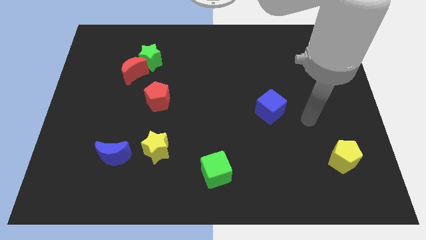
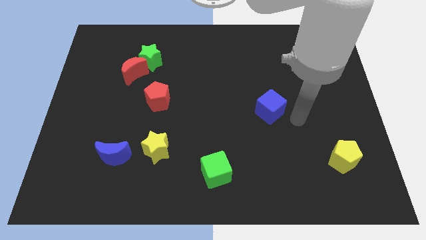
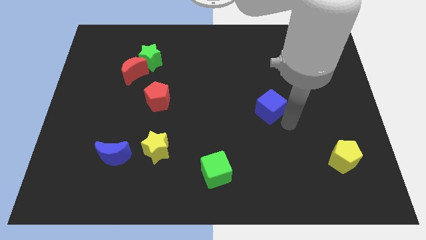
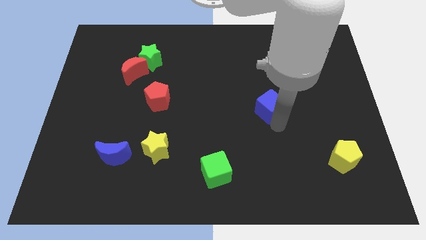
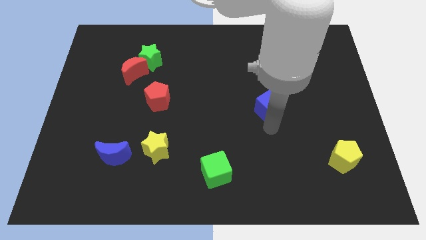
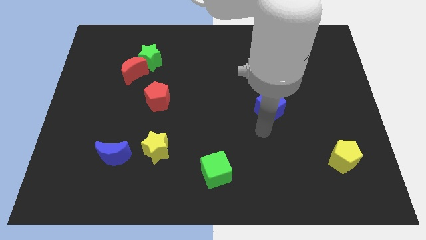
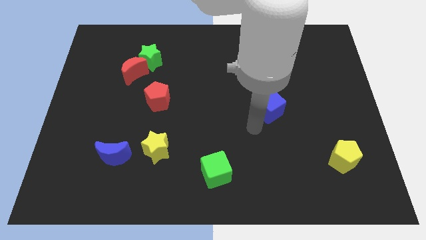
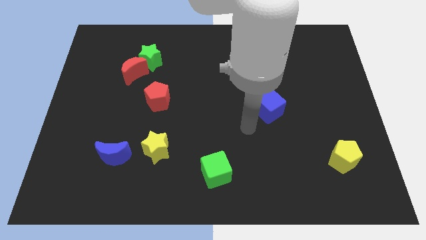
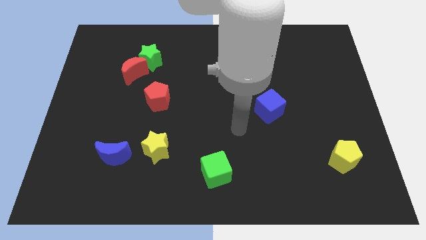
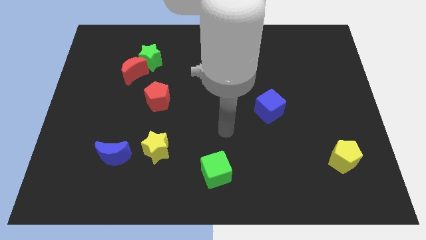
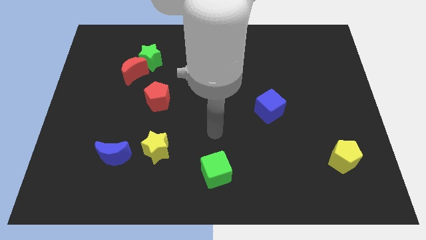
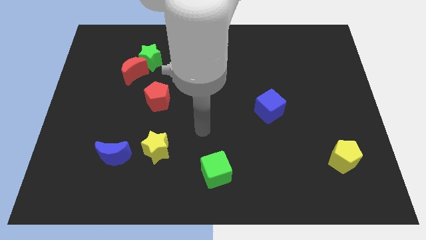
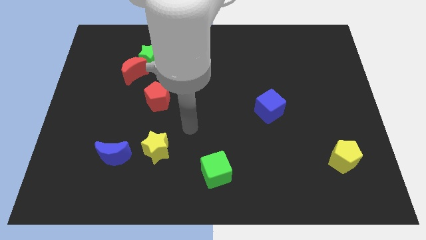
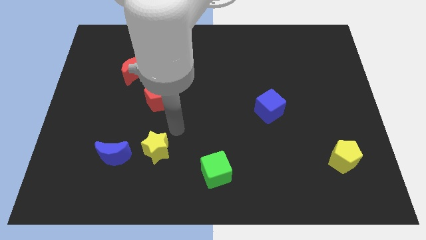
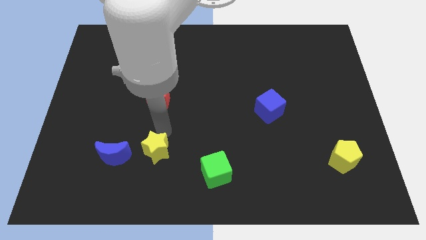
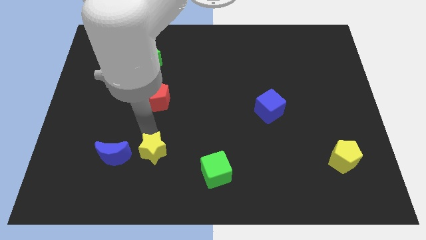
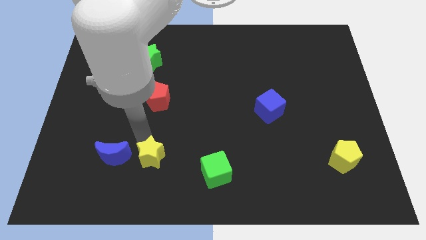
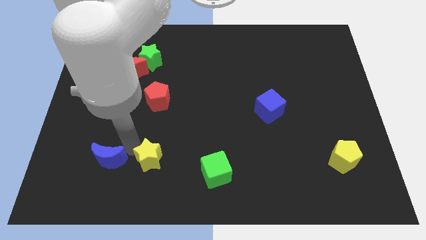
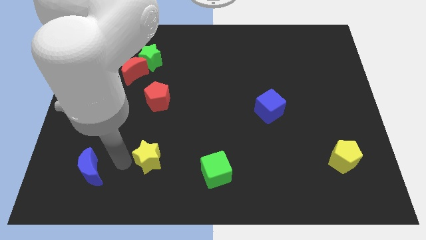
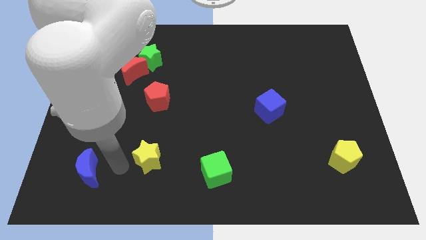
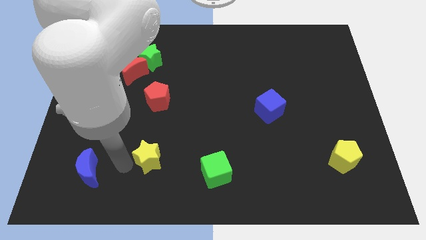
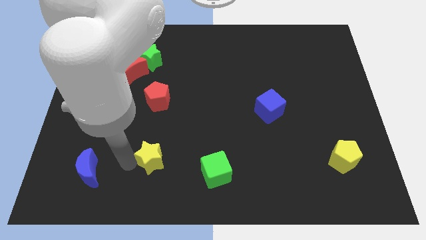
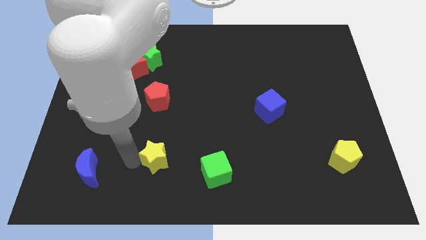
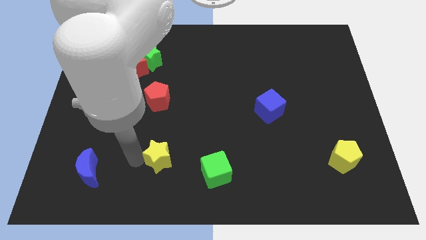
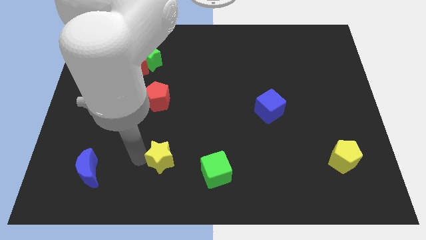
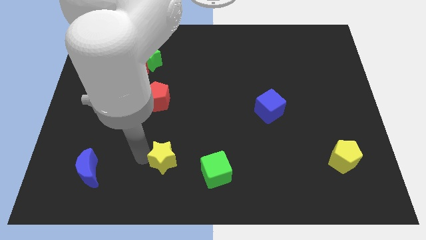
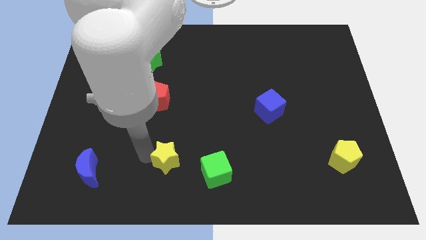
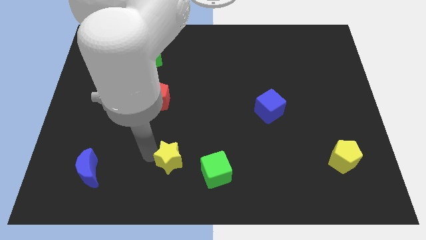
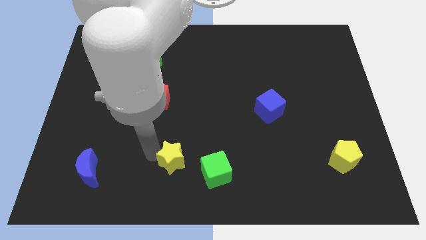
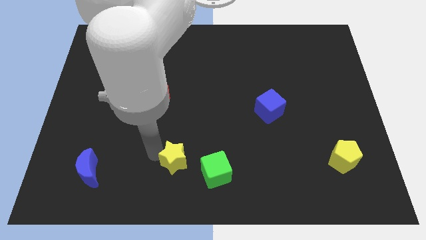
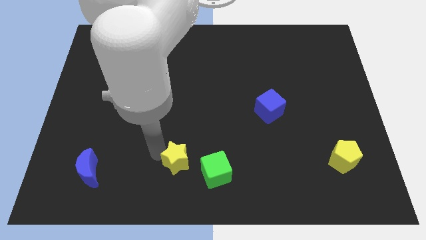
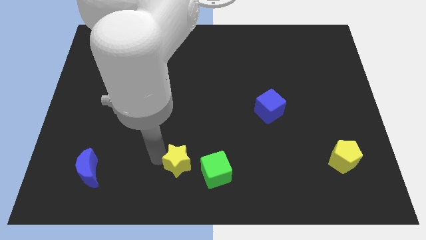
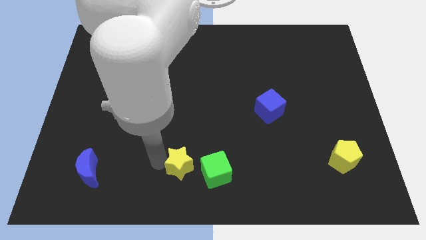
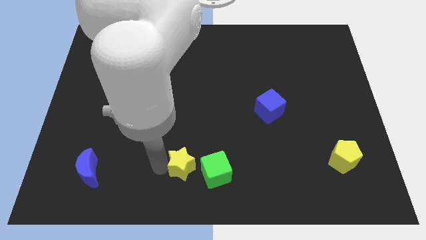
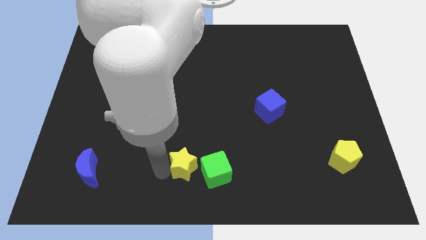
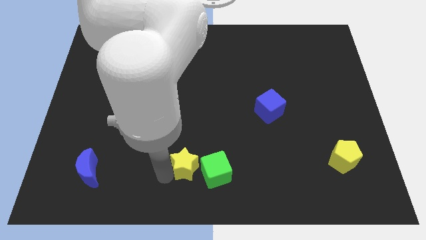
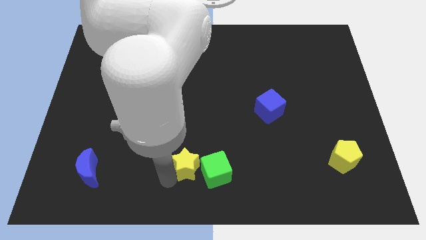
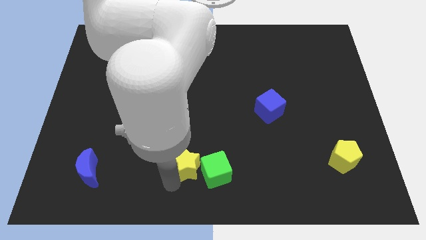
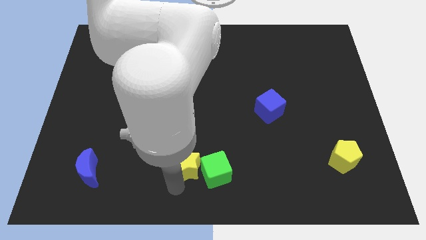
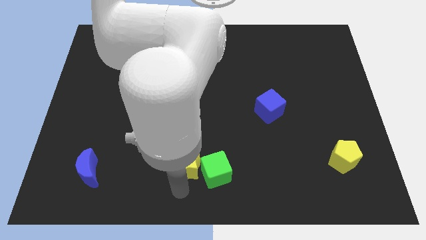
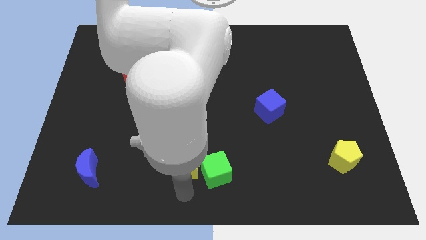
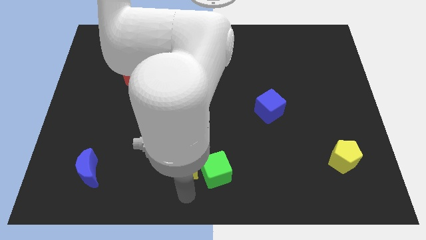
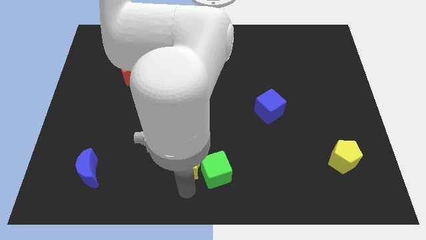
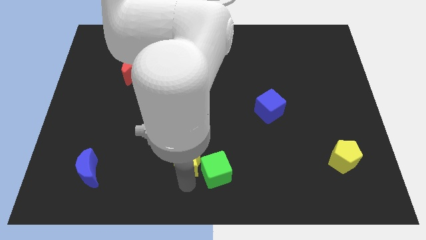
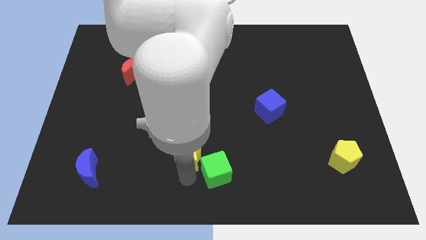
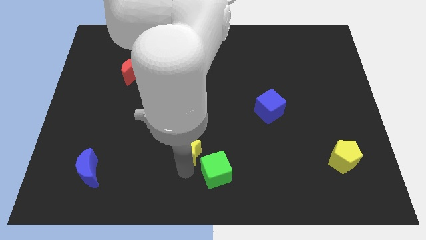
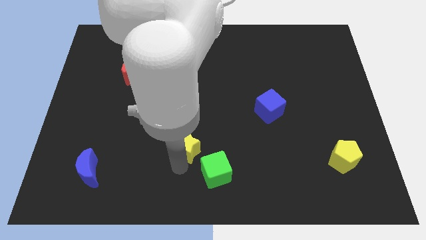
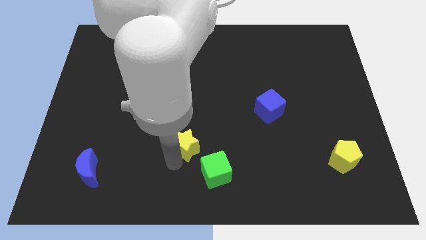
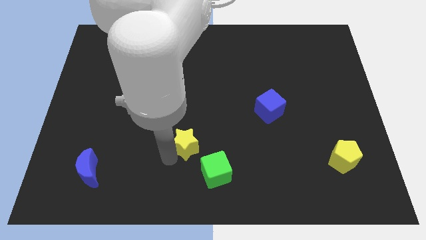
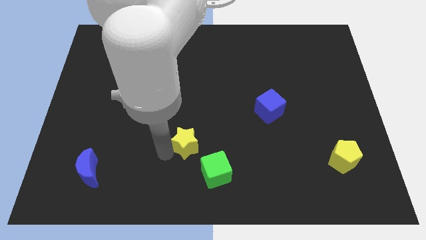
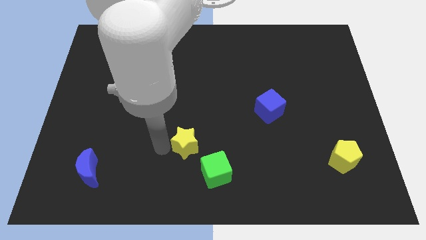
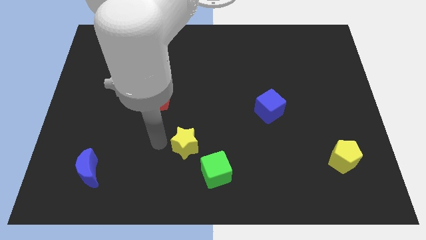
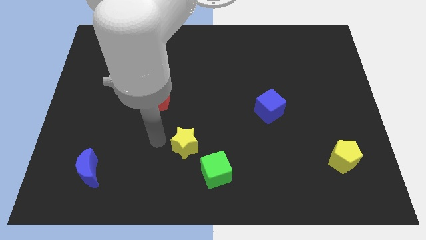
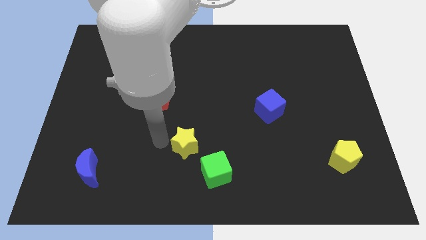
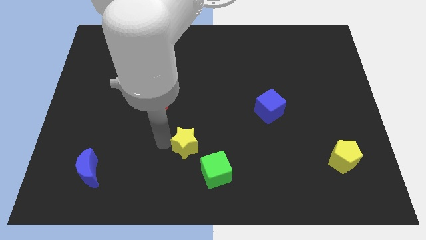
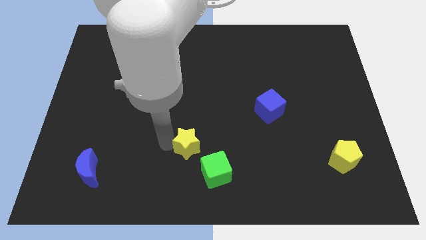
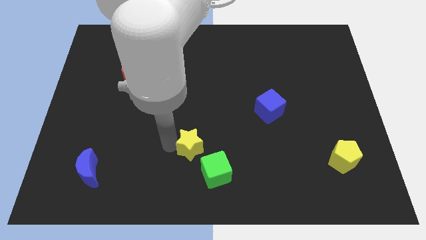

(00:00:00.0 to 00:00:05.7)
move the yellow star to the right a bit

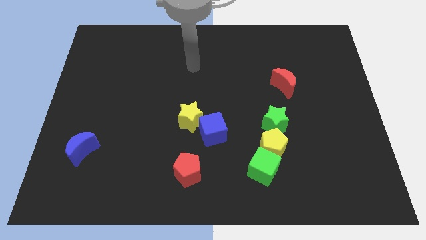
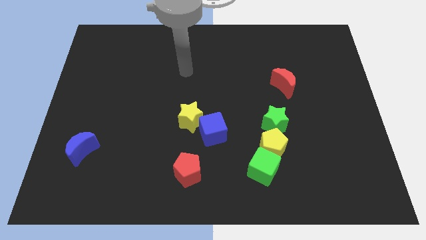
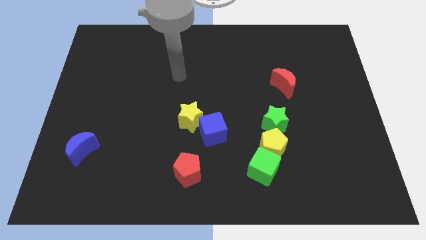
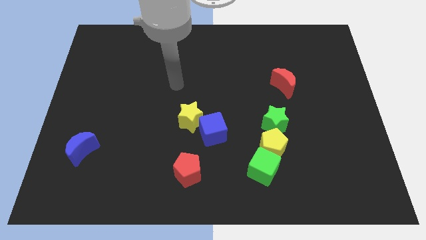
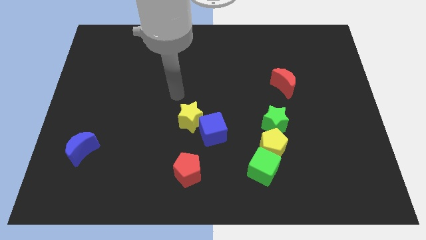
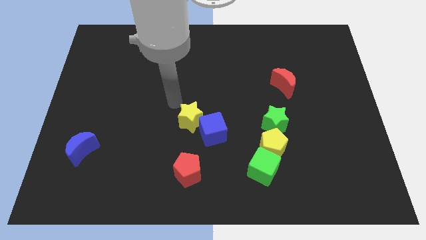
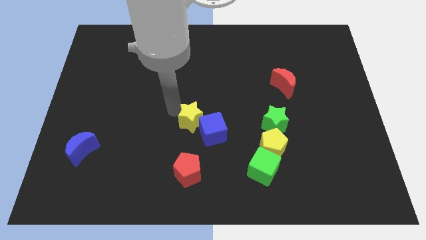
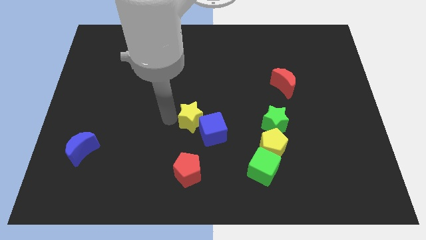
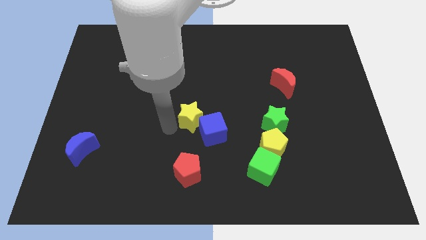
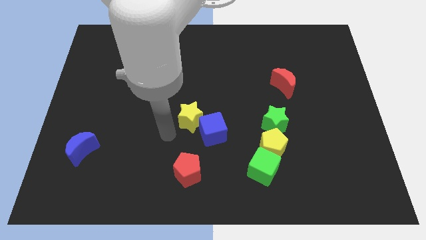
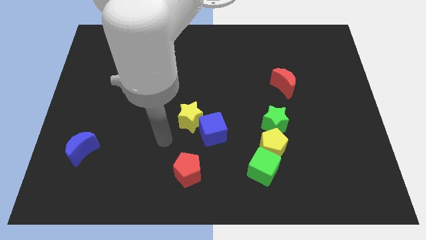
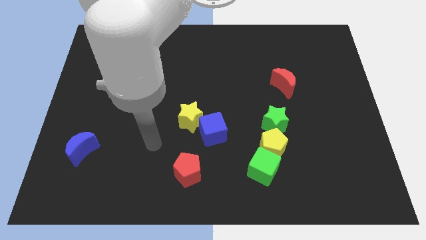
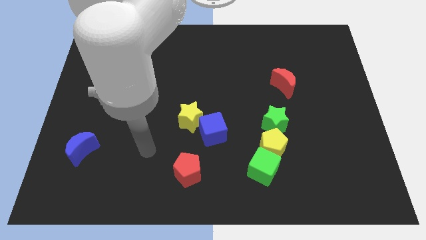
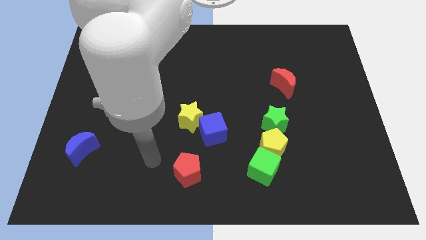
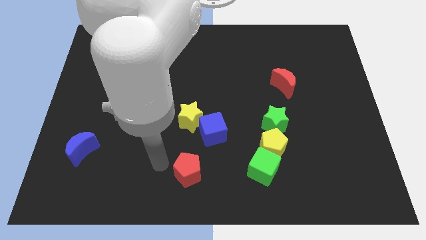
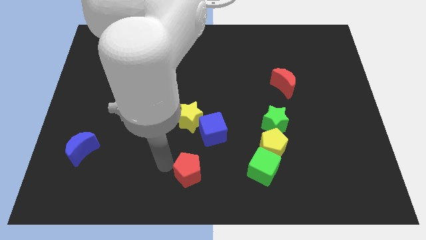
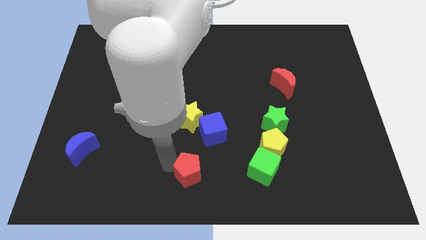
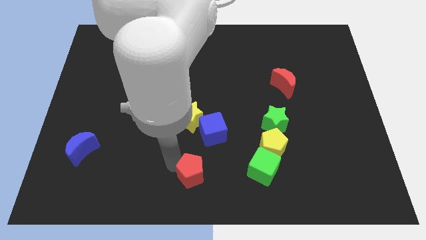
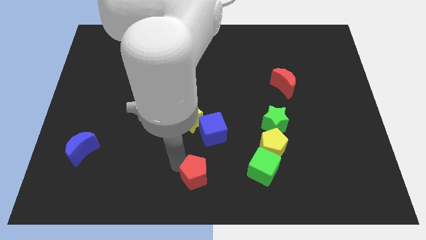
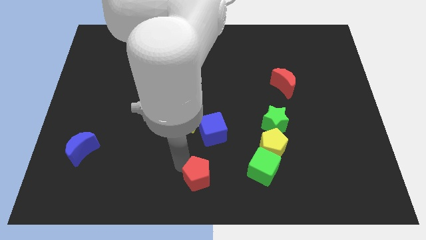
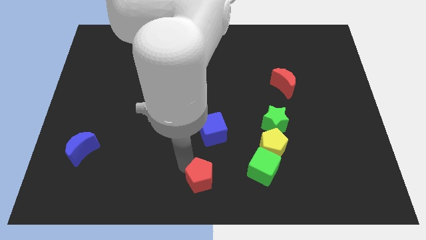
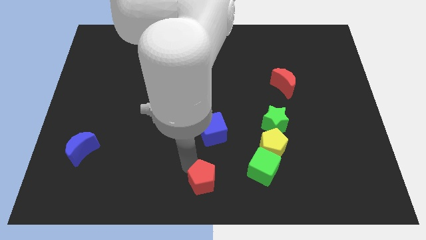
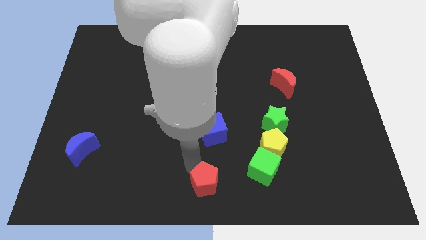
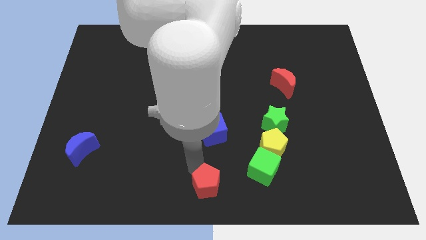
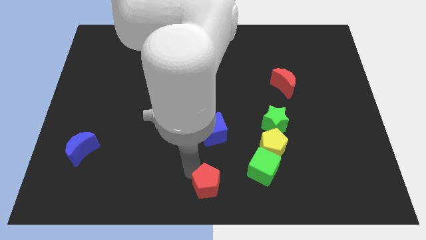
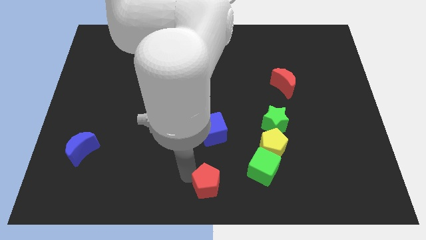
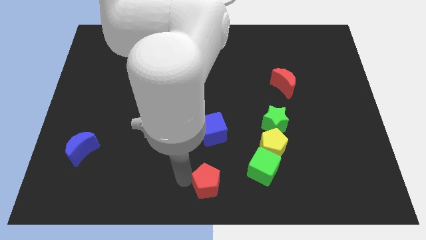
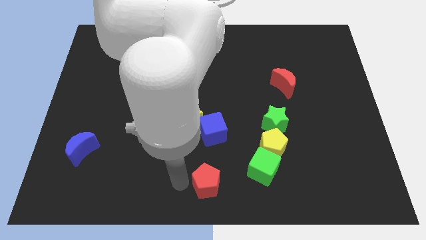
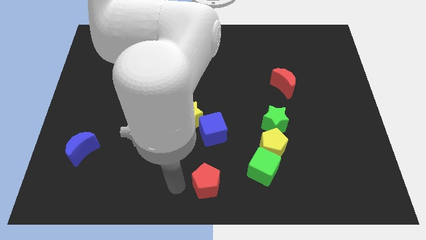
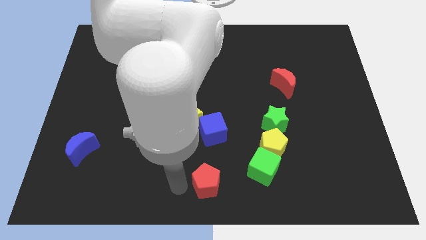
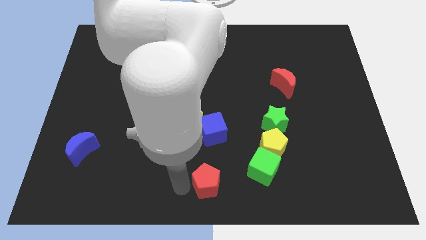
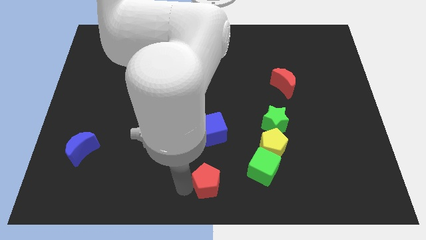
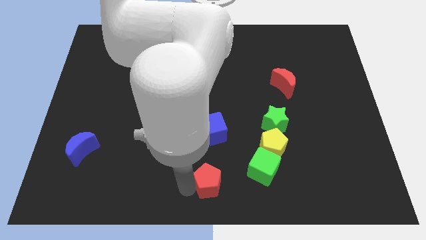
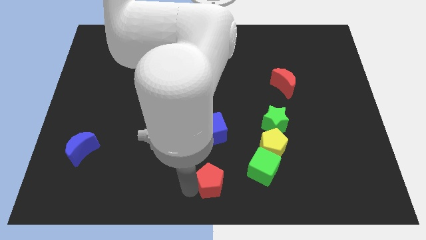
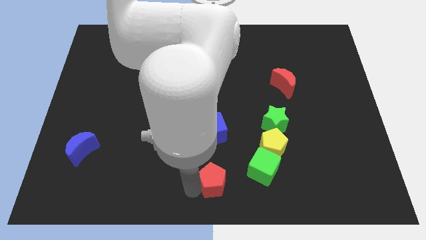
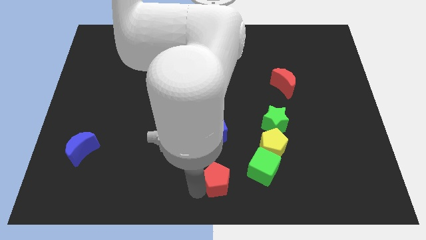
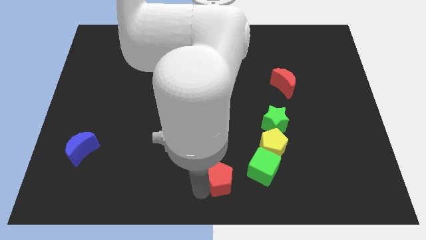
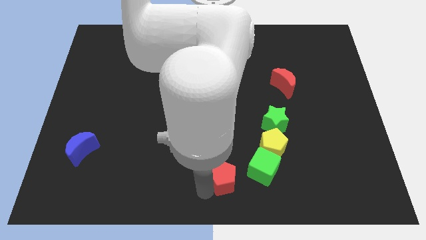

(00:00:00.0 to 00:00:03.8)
slide the red pentagon right slightly
